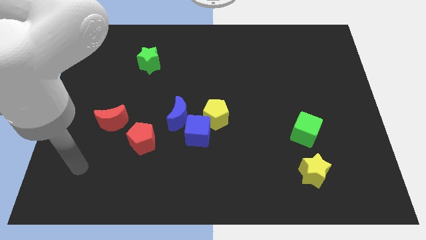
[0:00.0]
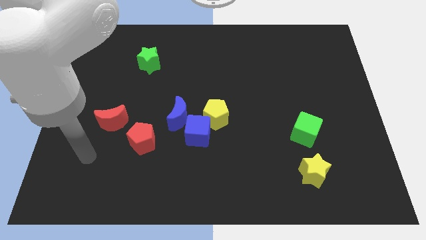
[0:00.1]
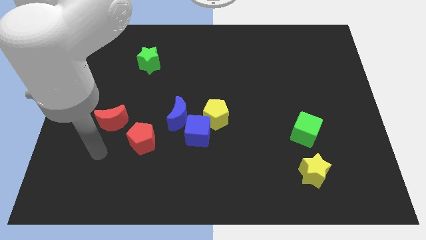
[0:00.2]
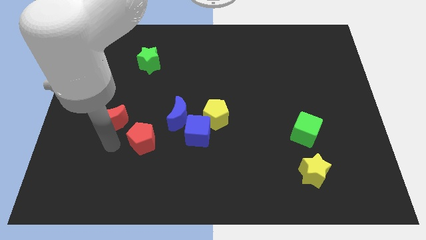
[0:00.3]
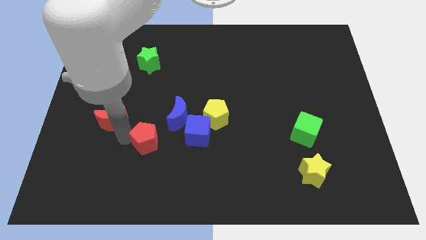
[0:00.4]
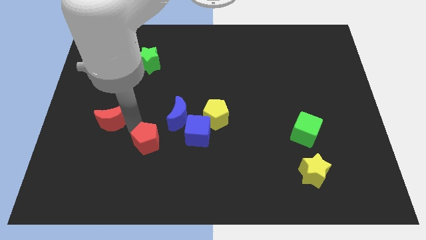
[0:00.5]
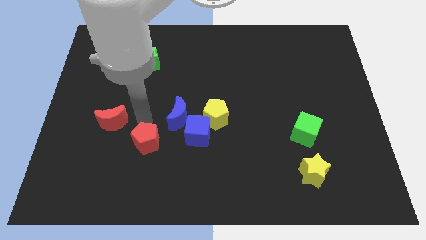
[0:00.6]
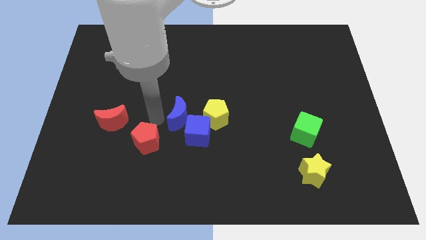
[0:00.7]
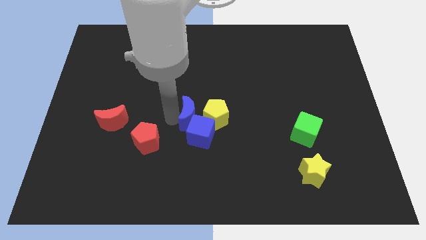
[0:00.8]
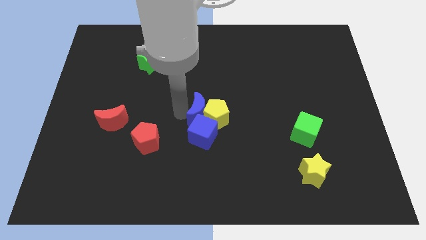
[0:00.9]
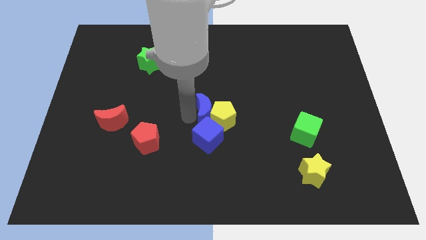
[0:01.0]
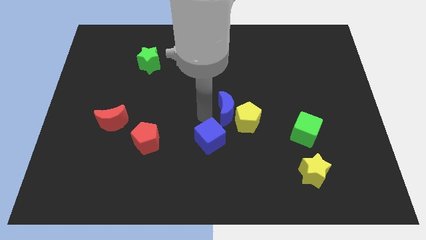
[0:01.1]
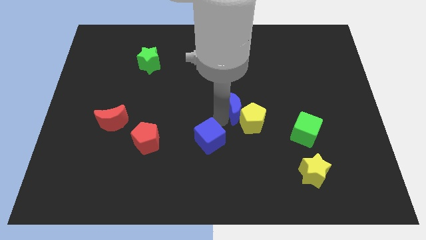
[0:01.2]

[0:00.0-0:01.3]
move the blue cube away from the yellow pentagon and blue moon

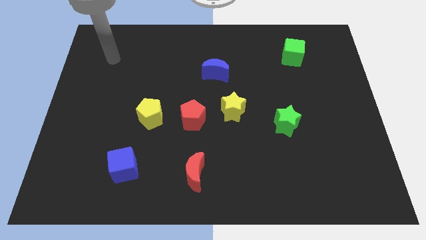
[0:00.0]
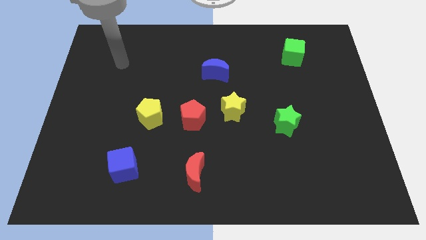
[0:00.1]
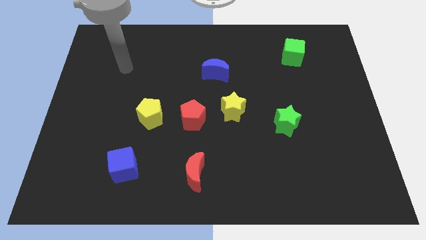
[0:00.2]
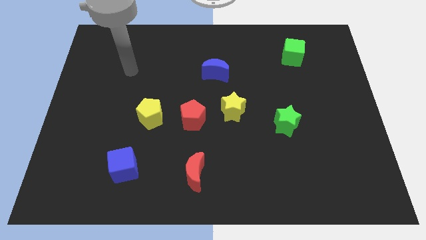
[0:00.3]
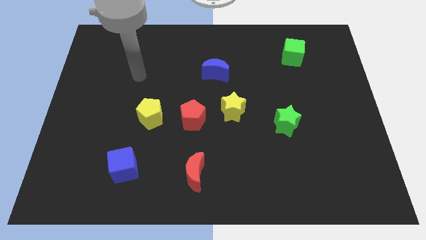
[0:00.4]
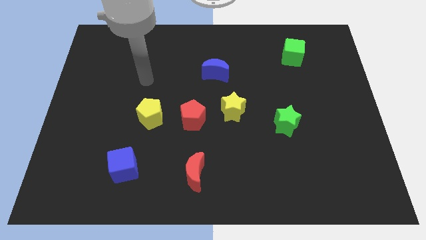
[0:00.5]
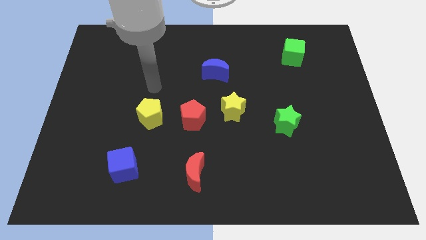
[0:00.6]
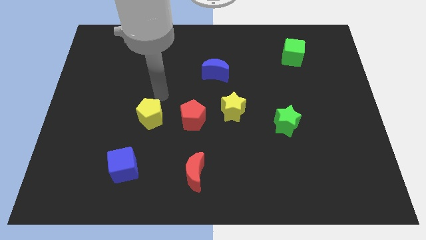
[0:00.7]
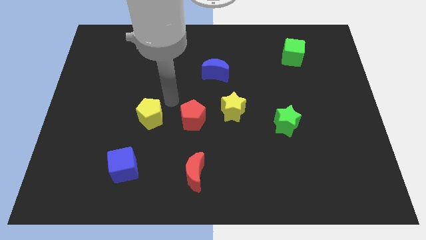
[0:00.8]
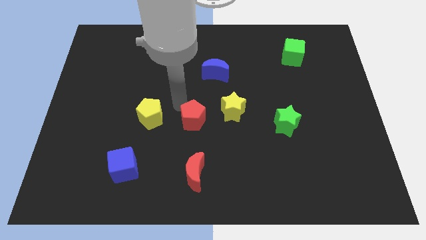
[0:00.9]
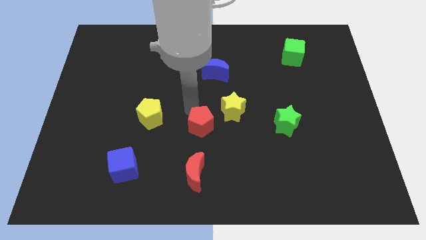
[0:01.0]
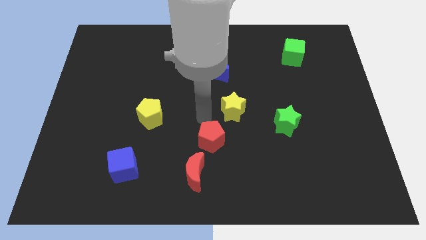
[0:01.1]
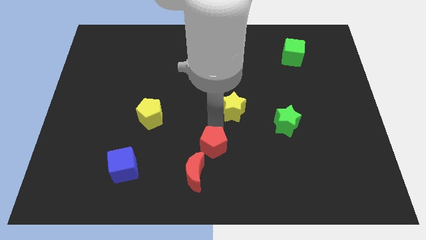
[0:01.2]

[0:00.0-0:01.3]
separate the yellow star from the red pentagon

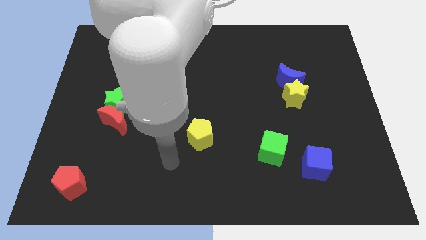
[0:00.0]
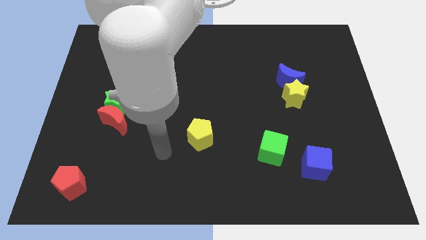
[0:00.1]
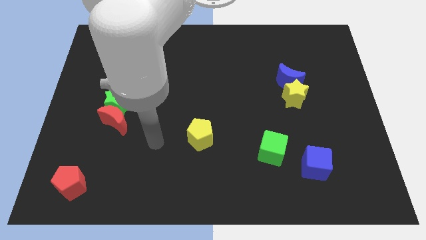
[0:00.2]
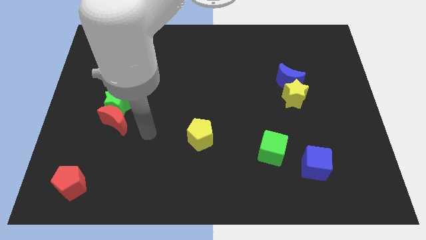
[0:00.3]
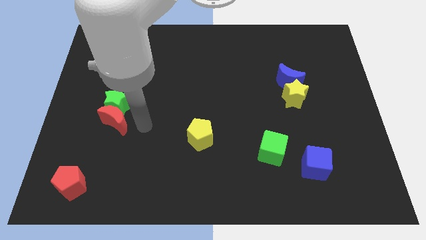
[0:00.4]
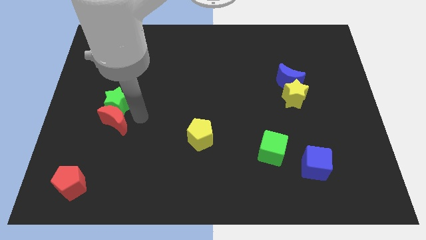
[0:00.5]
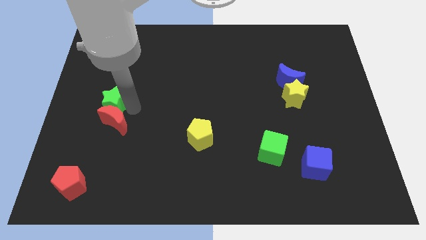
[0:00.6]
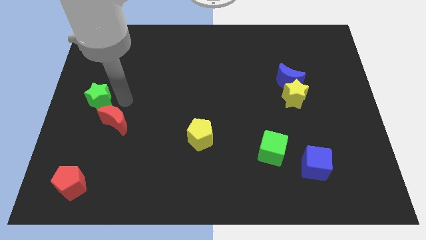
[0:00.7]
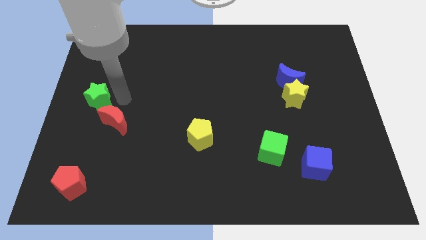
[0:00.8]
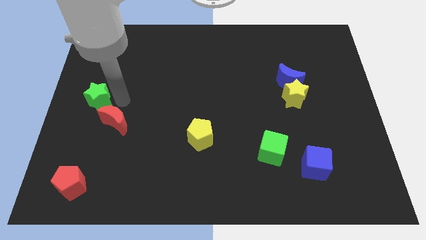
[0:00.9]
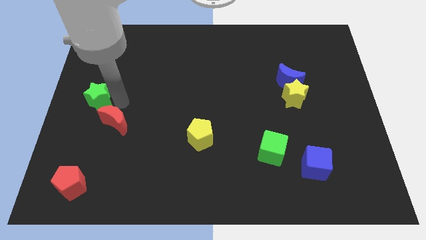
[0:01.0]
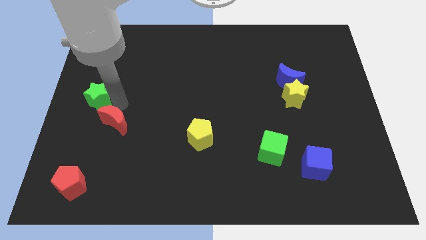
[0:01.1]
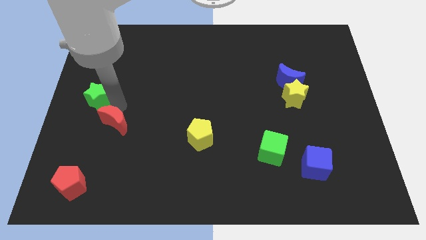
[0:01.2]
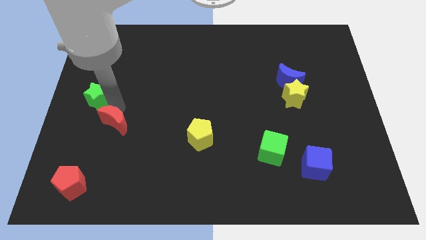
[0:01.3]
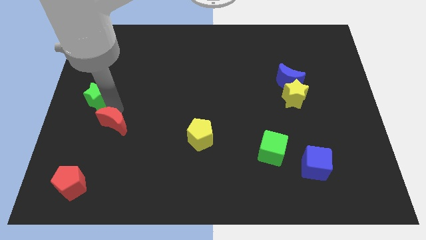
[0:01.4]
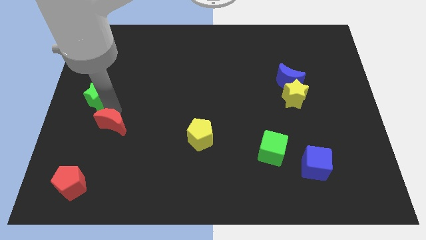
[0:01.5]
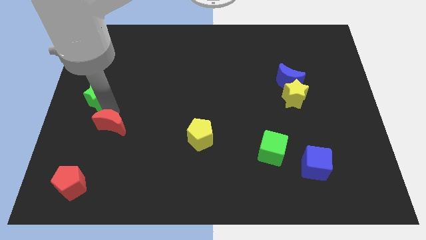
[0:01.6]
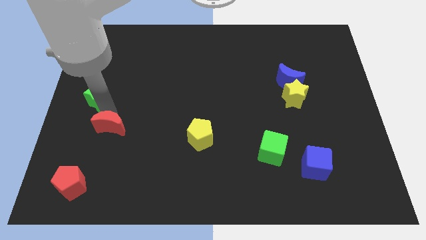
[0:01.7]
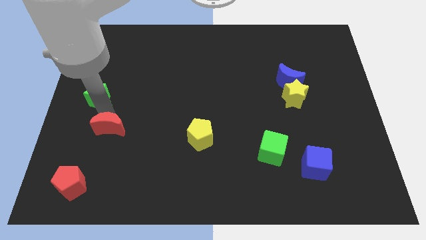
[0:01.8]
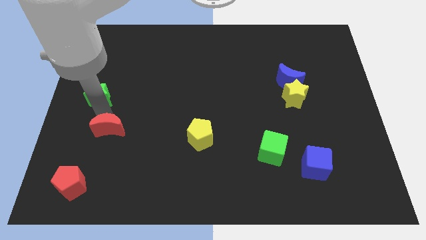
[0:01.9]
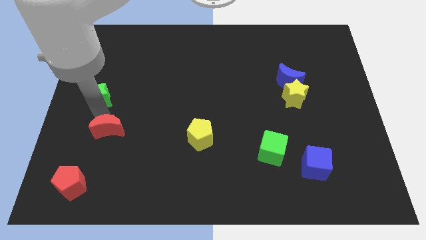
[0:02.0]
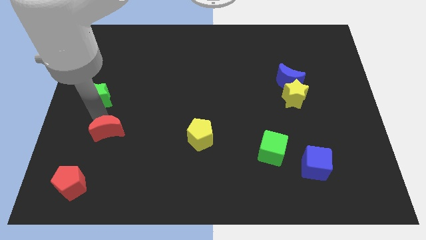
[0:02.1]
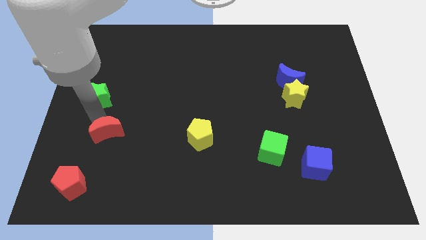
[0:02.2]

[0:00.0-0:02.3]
separate the red moon from the green star

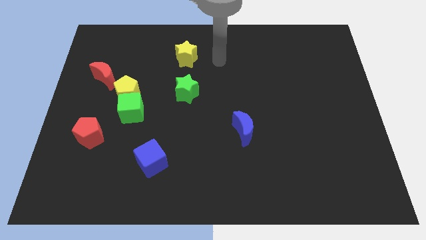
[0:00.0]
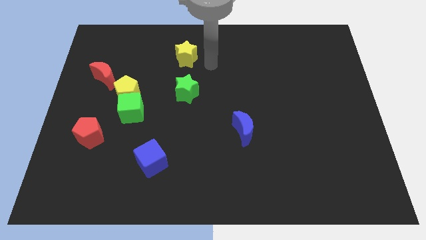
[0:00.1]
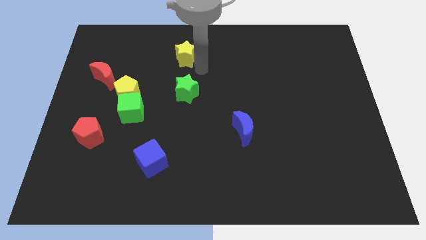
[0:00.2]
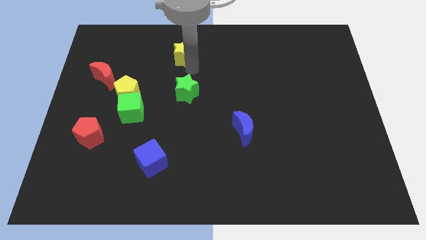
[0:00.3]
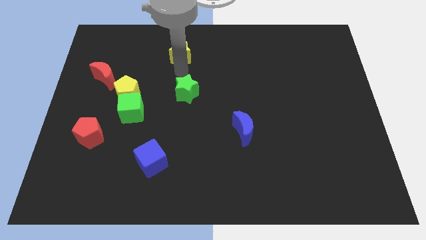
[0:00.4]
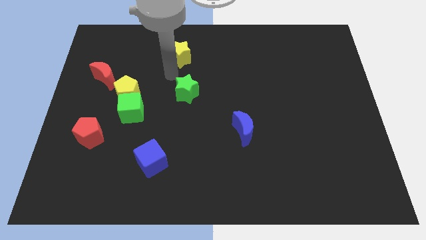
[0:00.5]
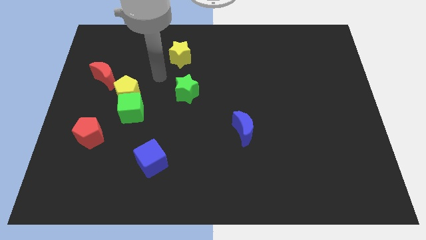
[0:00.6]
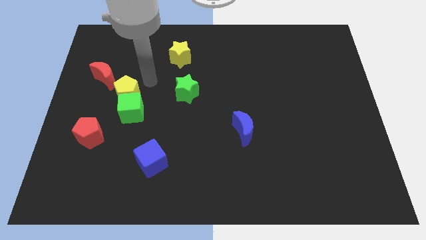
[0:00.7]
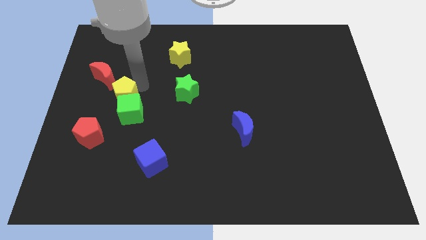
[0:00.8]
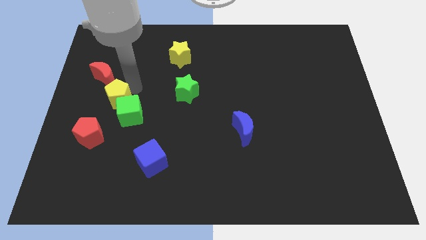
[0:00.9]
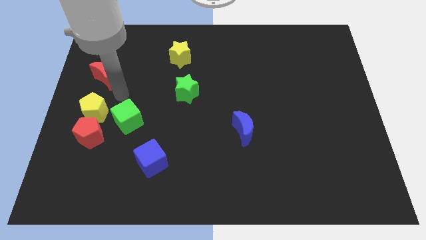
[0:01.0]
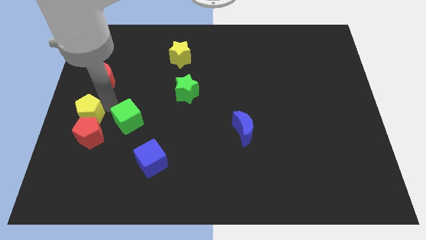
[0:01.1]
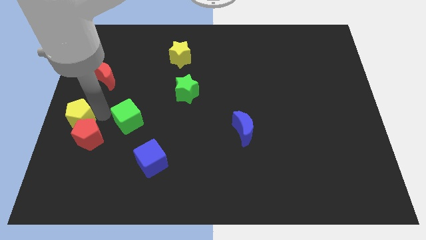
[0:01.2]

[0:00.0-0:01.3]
move the green cube away from the yellow pentagon

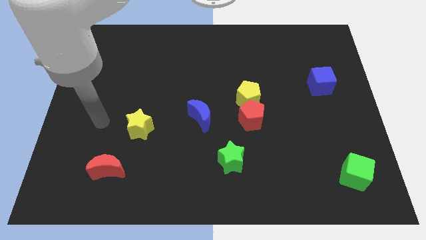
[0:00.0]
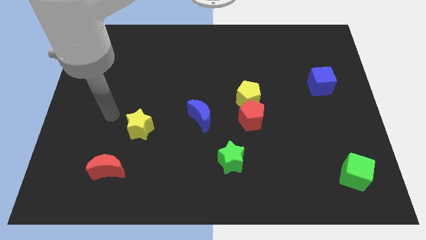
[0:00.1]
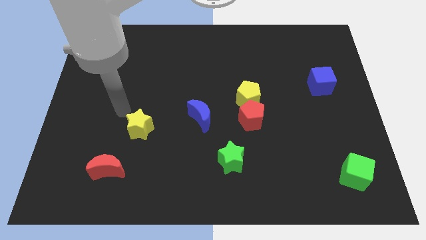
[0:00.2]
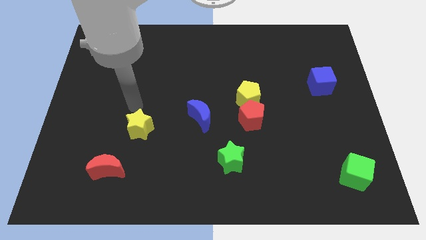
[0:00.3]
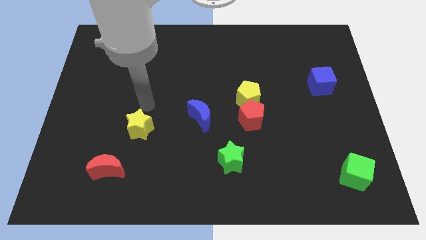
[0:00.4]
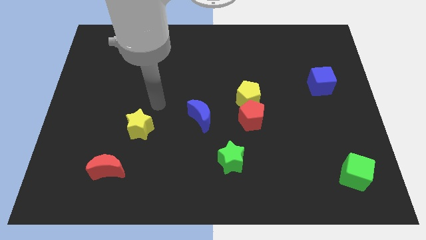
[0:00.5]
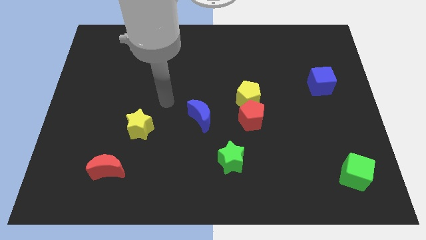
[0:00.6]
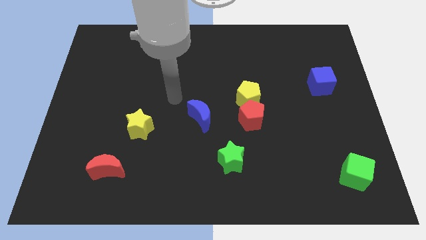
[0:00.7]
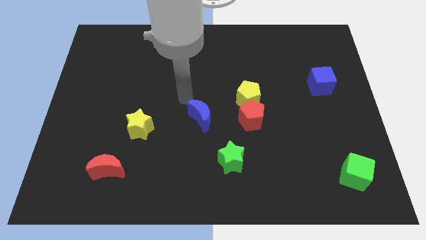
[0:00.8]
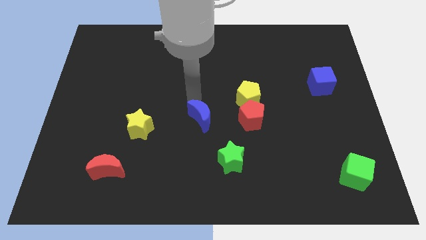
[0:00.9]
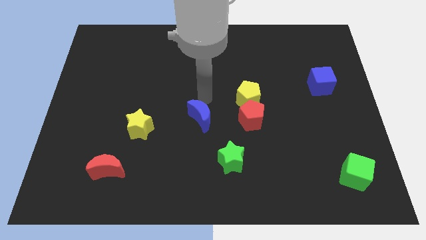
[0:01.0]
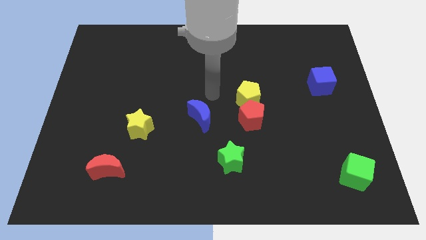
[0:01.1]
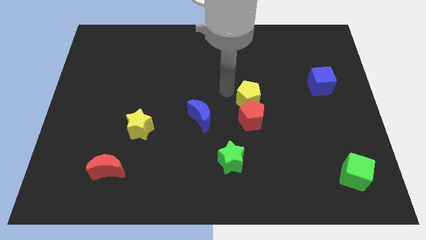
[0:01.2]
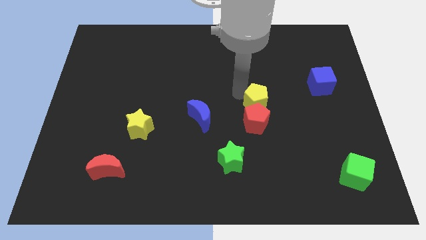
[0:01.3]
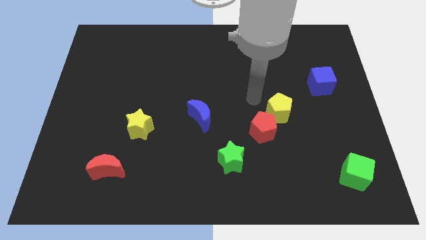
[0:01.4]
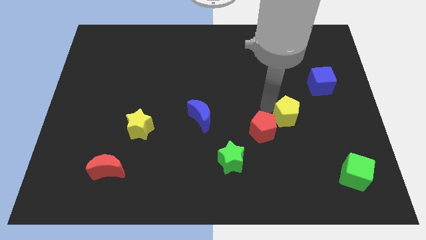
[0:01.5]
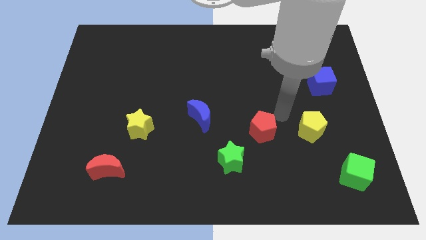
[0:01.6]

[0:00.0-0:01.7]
move the red pentagon away from the yellow pentagon

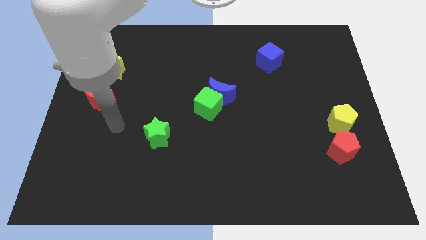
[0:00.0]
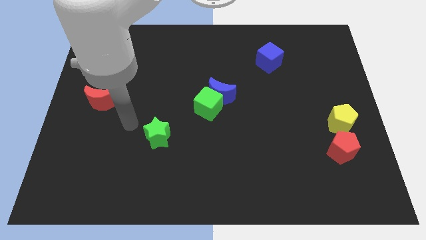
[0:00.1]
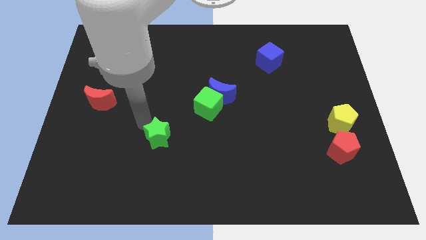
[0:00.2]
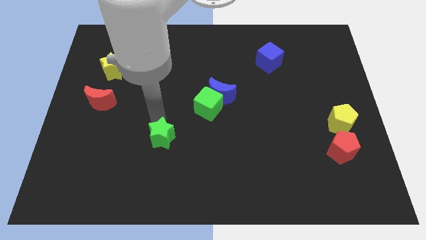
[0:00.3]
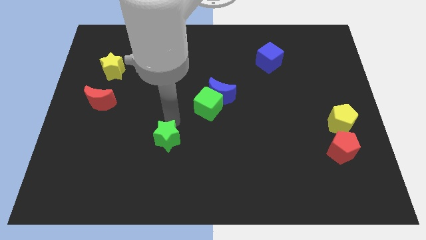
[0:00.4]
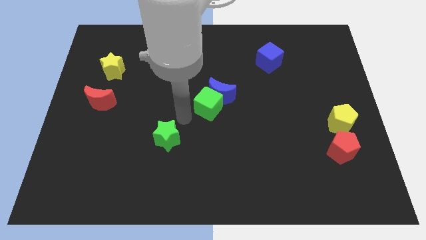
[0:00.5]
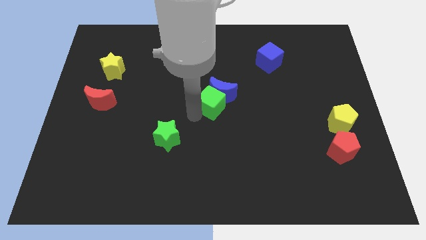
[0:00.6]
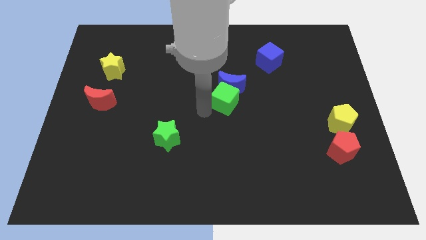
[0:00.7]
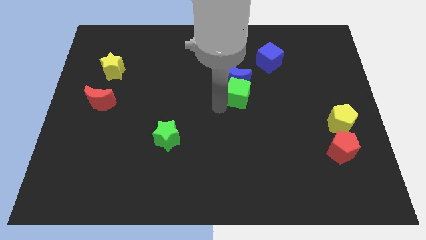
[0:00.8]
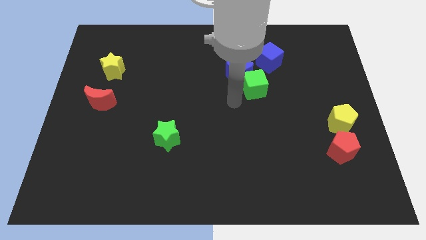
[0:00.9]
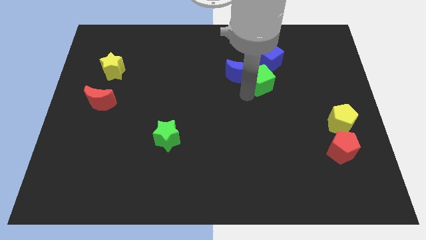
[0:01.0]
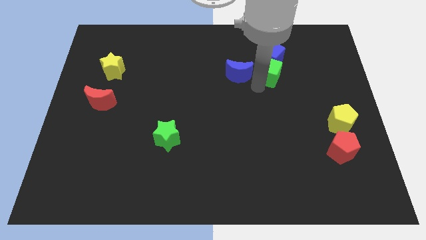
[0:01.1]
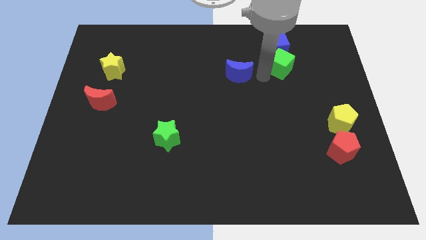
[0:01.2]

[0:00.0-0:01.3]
pull the blue moon apart from the green cube
